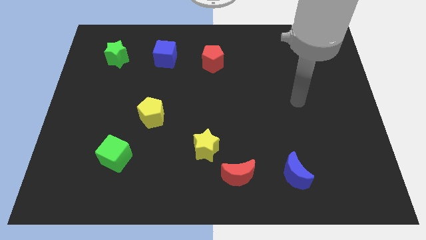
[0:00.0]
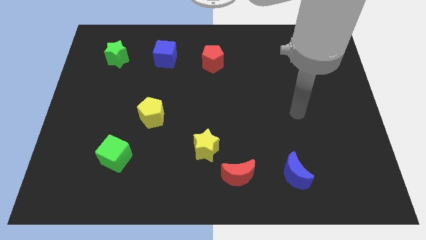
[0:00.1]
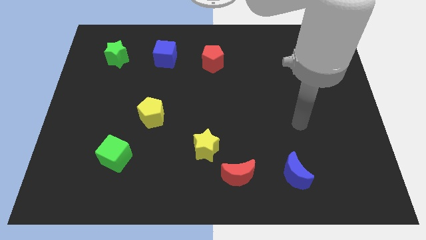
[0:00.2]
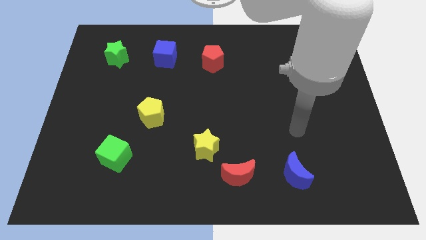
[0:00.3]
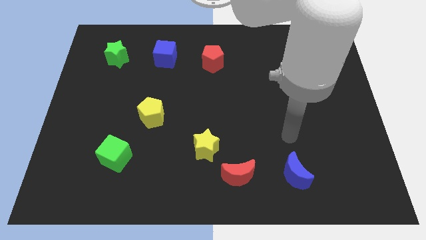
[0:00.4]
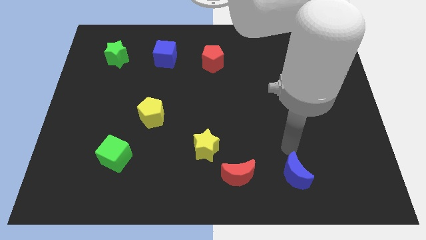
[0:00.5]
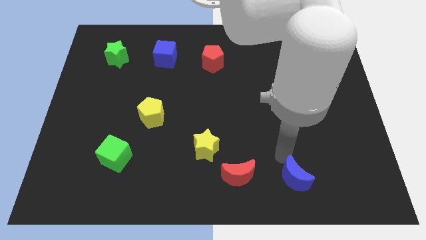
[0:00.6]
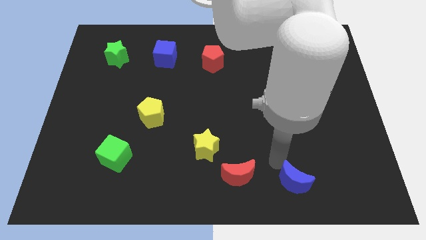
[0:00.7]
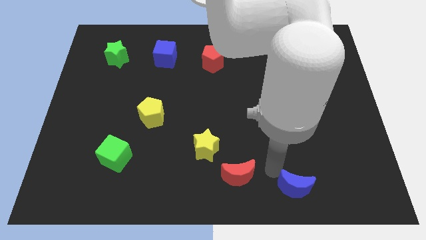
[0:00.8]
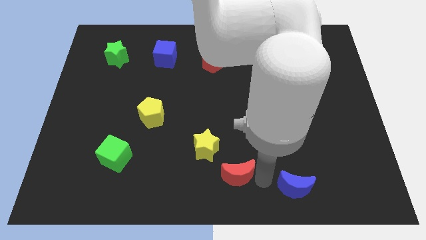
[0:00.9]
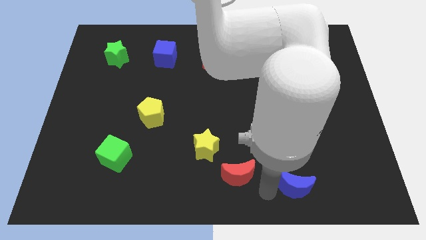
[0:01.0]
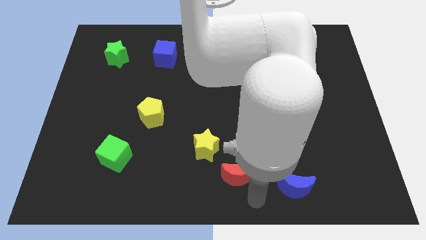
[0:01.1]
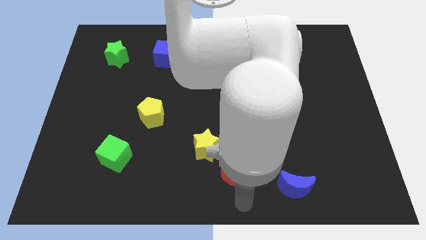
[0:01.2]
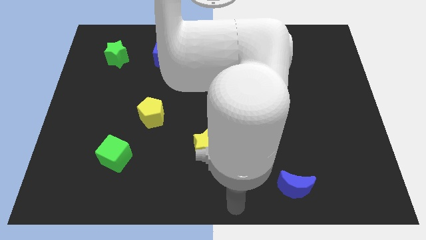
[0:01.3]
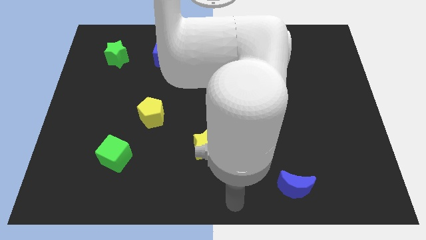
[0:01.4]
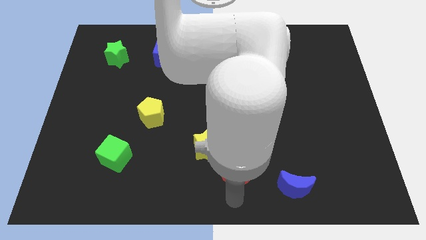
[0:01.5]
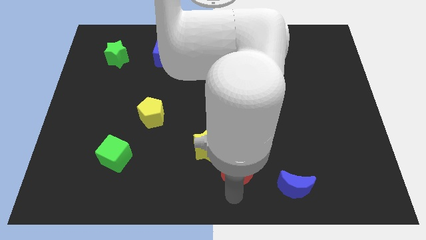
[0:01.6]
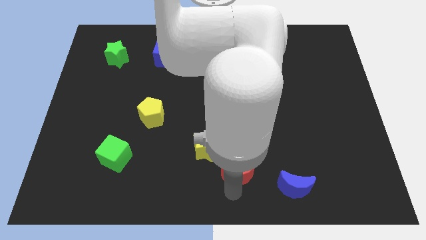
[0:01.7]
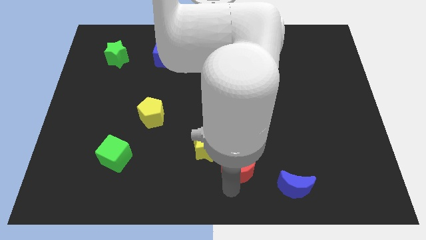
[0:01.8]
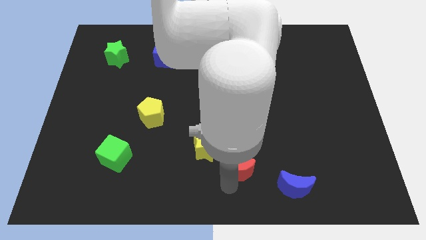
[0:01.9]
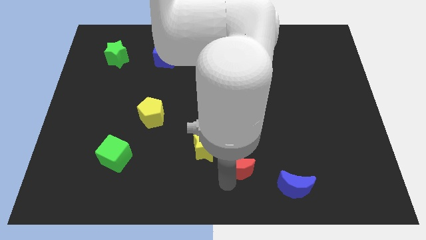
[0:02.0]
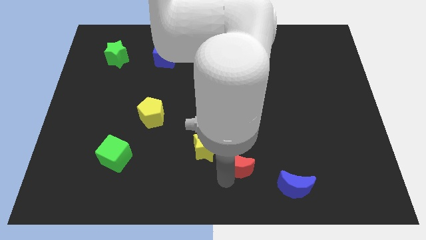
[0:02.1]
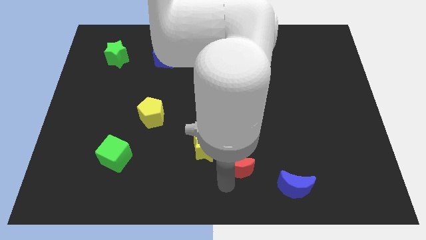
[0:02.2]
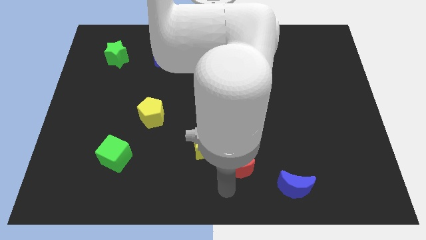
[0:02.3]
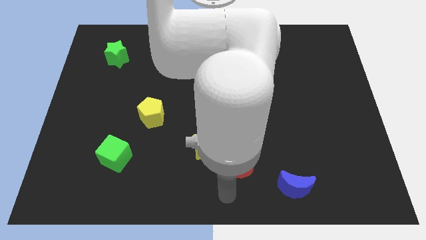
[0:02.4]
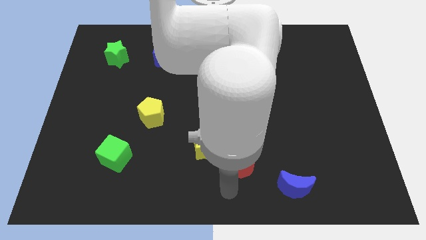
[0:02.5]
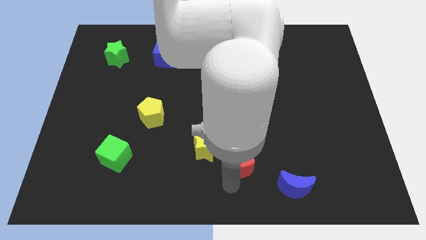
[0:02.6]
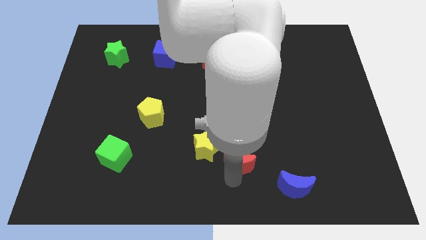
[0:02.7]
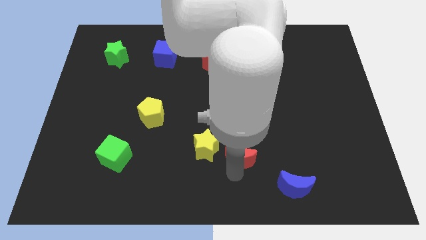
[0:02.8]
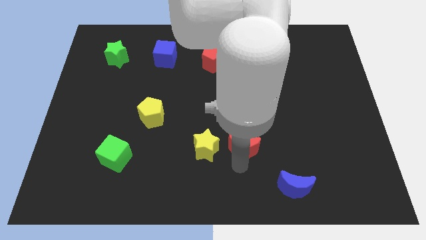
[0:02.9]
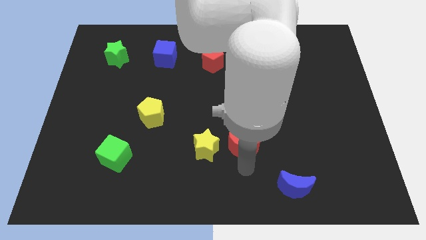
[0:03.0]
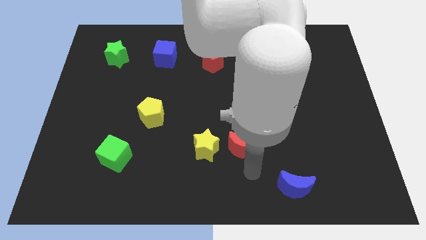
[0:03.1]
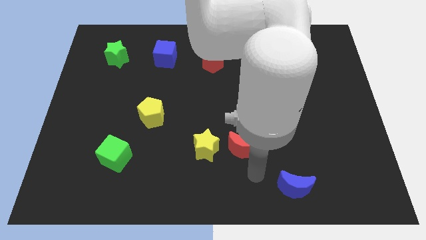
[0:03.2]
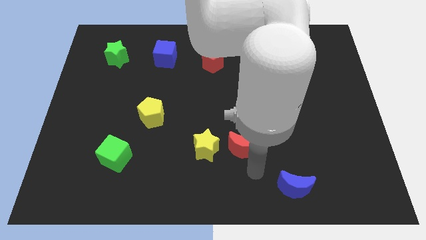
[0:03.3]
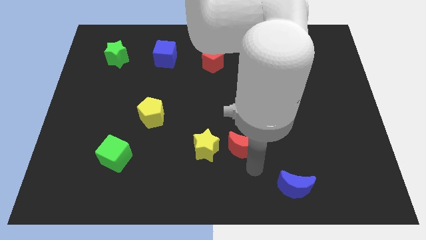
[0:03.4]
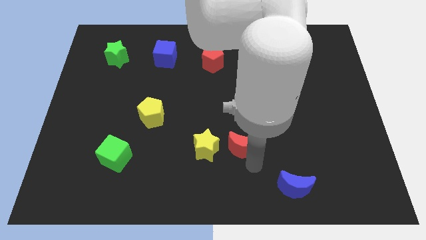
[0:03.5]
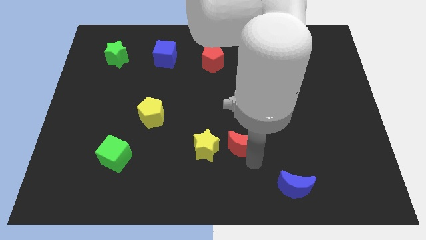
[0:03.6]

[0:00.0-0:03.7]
push the red moon upwards a little

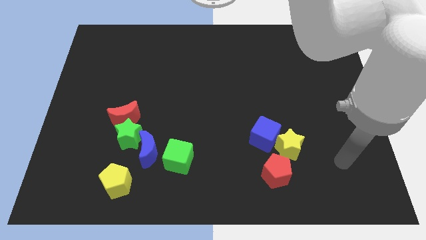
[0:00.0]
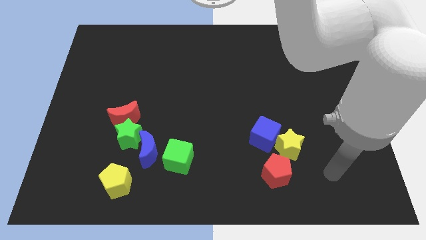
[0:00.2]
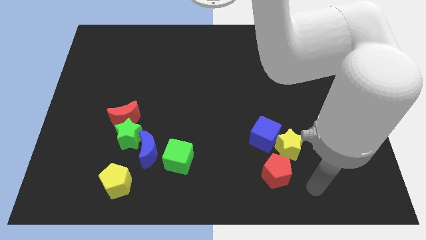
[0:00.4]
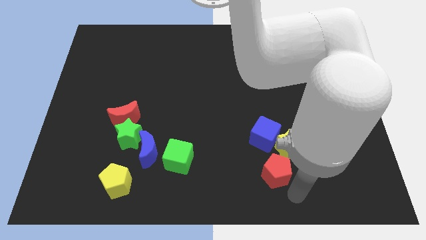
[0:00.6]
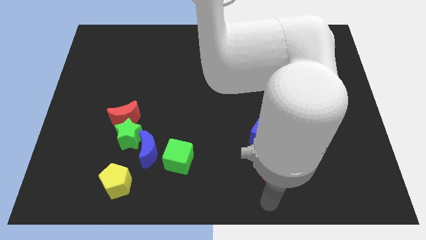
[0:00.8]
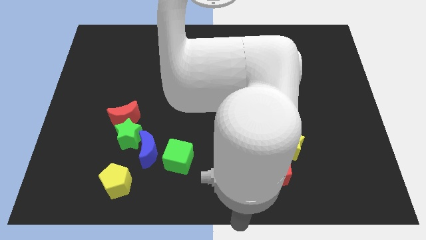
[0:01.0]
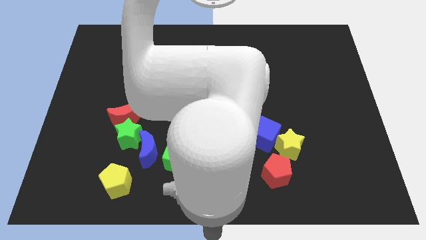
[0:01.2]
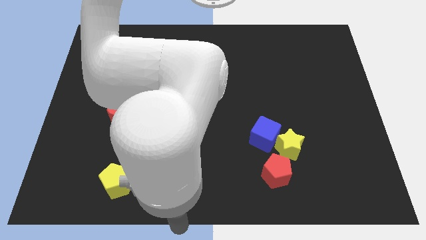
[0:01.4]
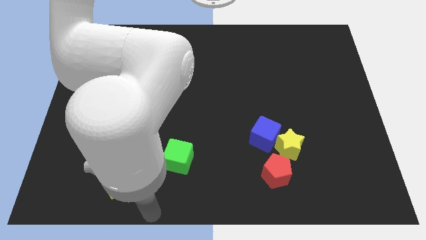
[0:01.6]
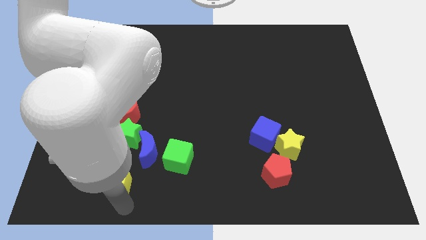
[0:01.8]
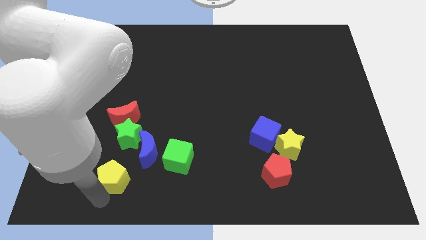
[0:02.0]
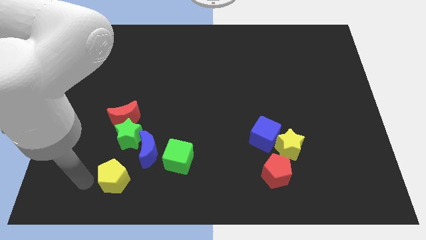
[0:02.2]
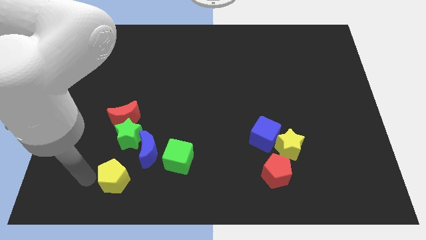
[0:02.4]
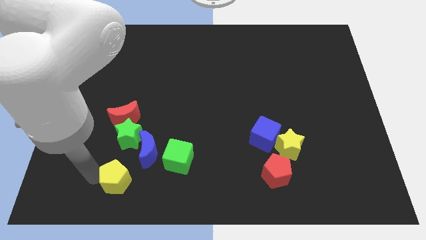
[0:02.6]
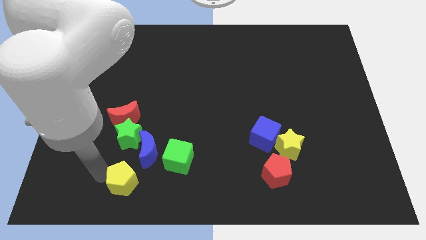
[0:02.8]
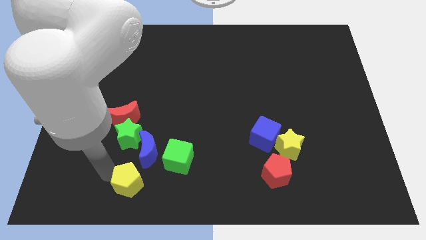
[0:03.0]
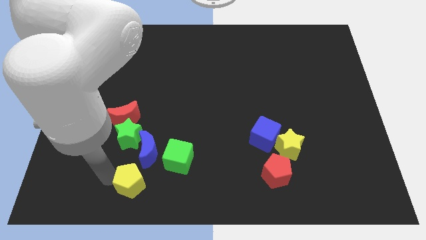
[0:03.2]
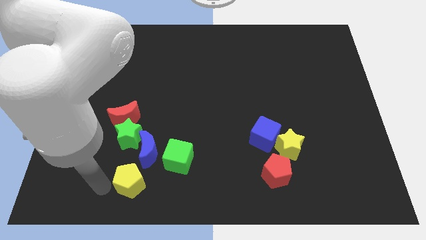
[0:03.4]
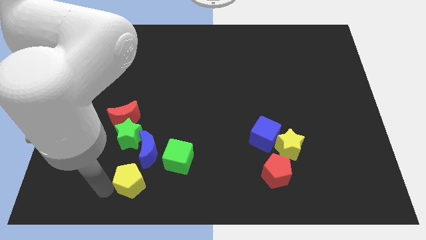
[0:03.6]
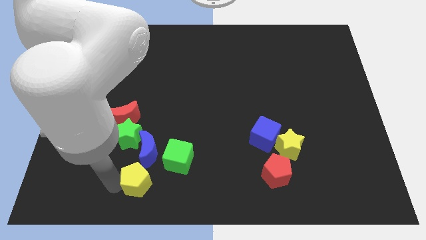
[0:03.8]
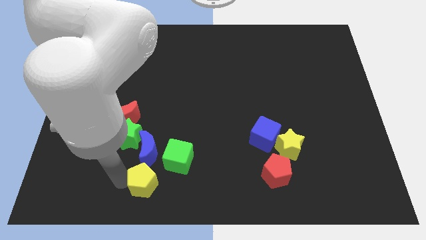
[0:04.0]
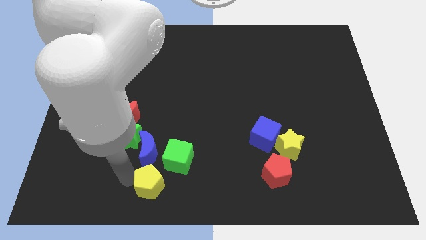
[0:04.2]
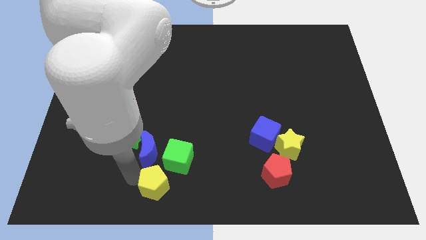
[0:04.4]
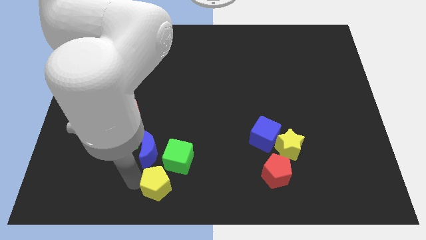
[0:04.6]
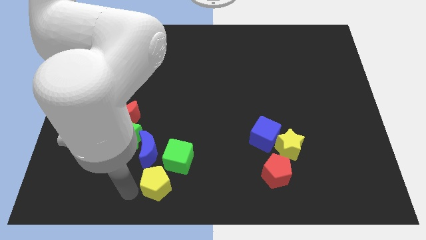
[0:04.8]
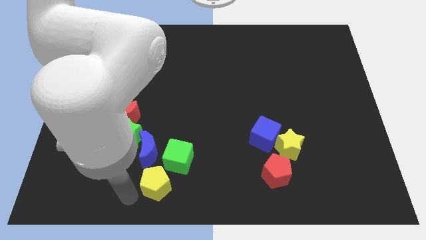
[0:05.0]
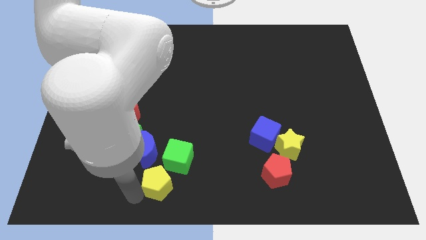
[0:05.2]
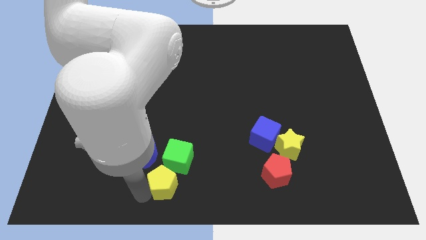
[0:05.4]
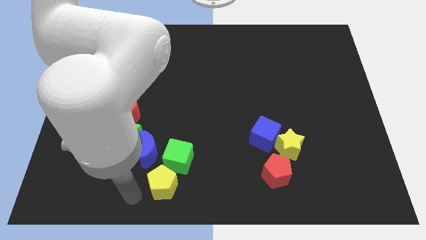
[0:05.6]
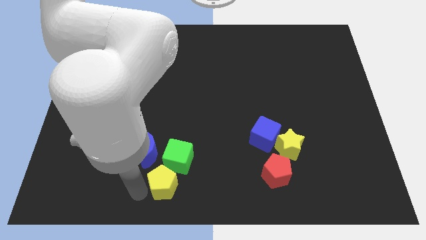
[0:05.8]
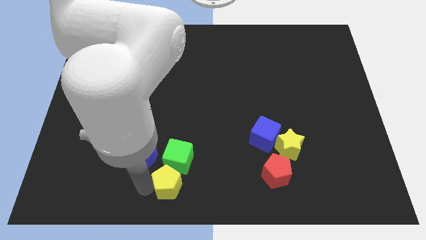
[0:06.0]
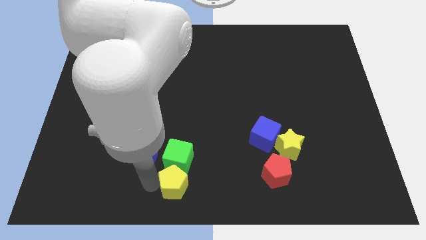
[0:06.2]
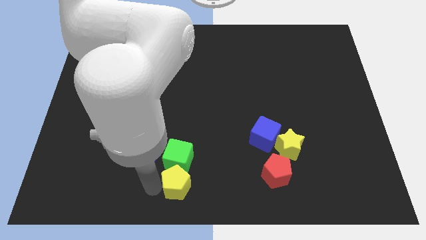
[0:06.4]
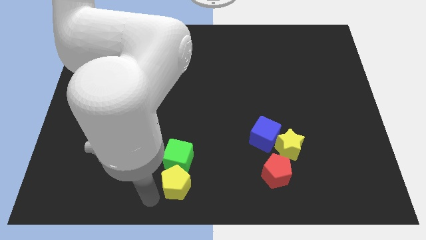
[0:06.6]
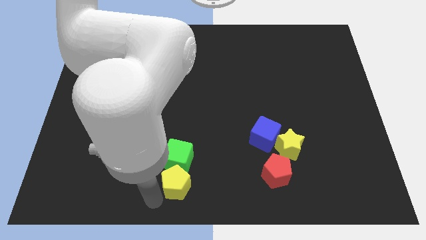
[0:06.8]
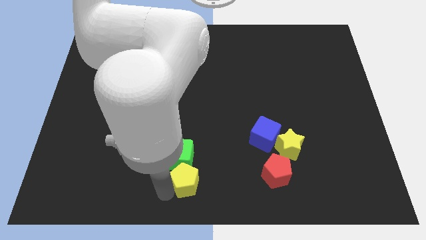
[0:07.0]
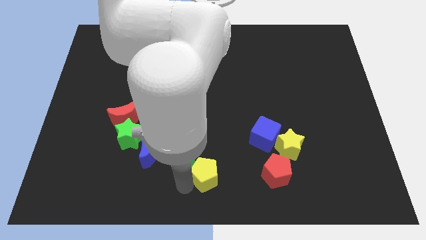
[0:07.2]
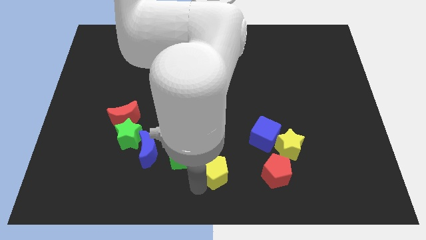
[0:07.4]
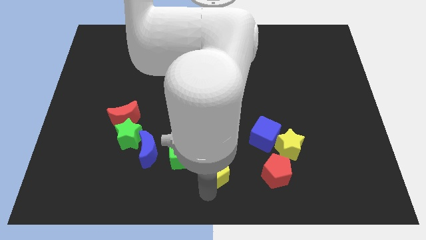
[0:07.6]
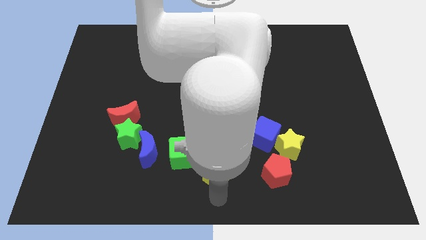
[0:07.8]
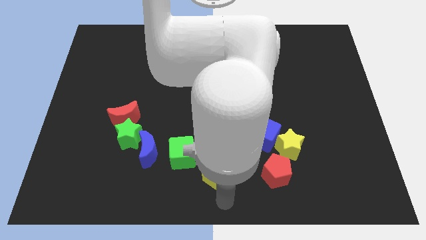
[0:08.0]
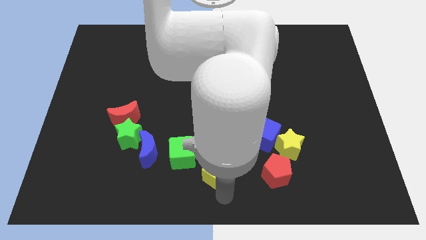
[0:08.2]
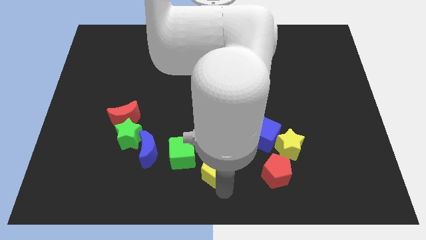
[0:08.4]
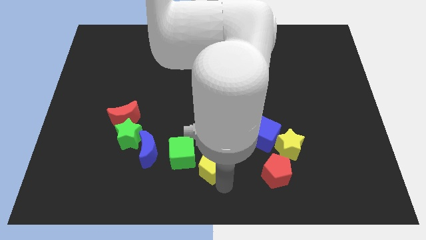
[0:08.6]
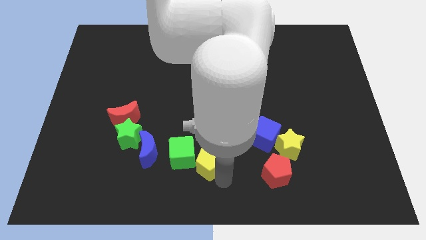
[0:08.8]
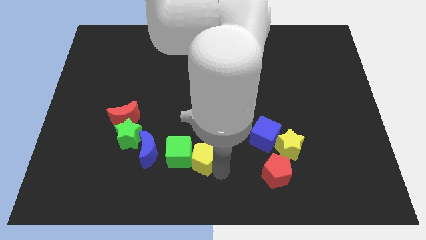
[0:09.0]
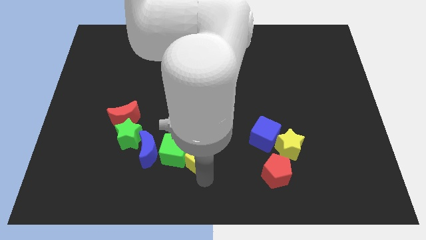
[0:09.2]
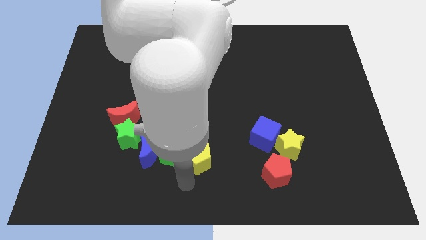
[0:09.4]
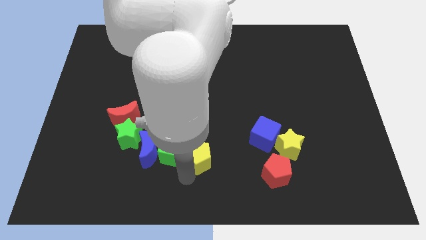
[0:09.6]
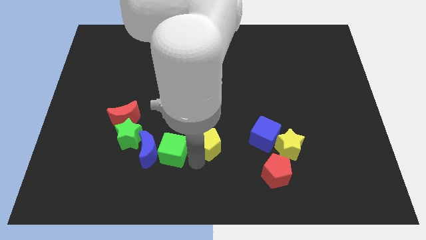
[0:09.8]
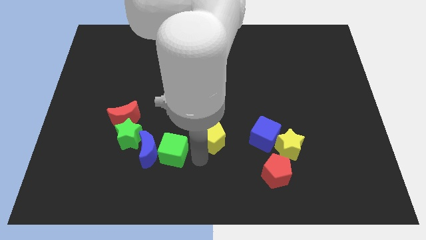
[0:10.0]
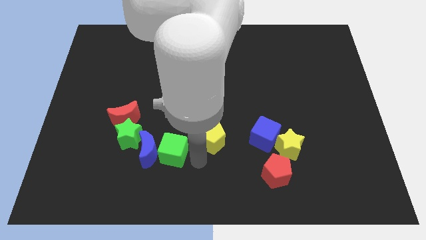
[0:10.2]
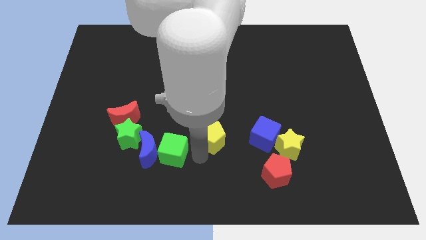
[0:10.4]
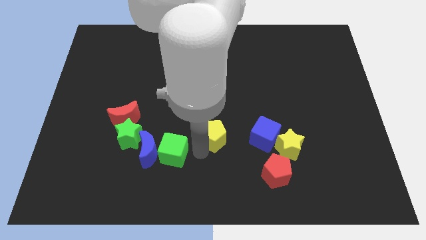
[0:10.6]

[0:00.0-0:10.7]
move the yellow pentagon up and right
